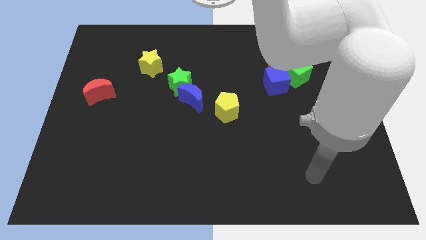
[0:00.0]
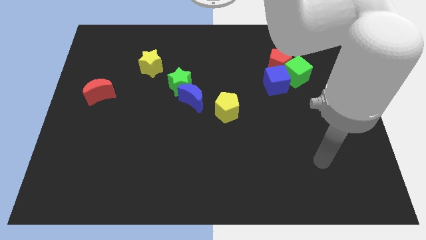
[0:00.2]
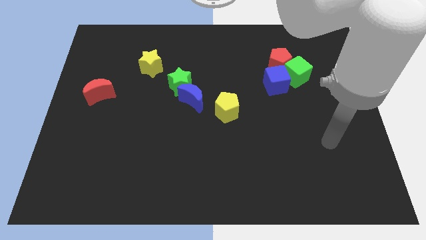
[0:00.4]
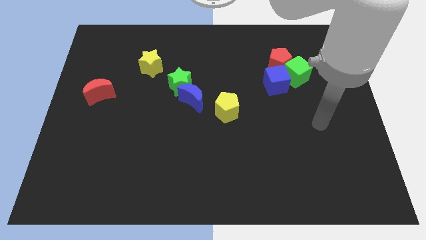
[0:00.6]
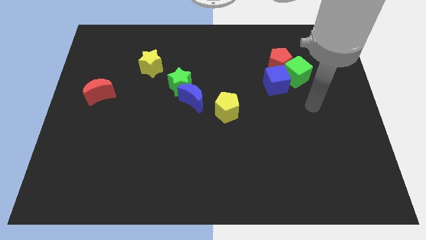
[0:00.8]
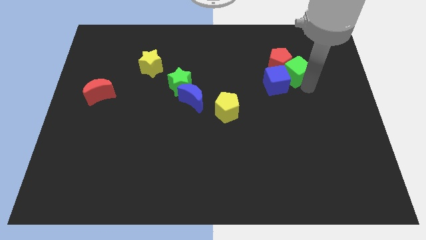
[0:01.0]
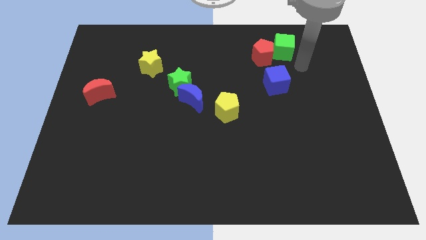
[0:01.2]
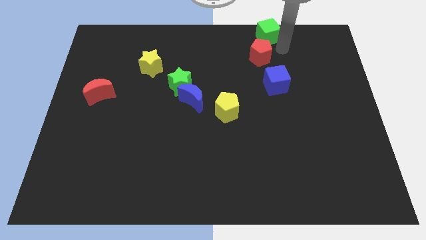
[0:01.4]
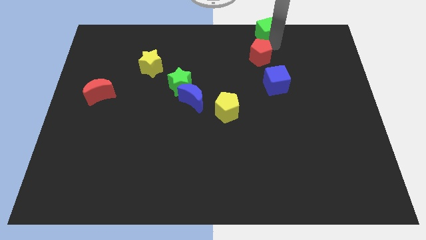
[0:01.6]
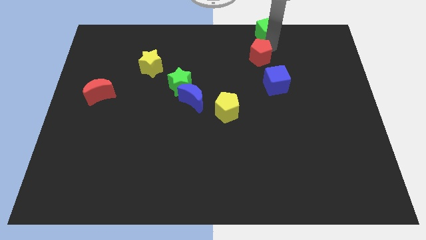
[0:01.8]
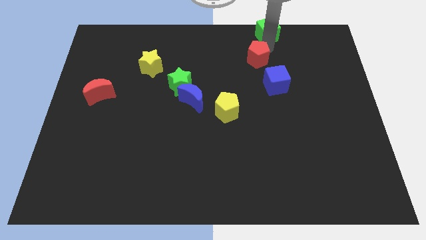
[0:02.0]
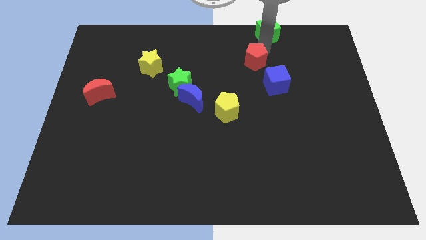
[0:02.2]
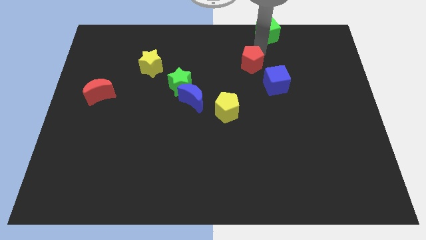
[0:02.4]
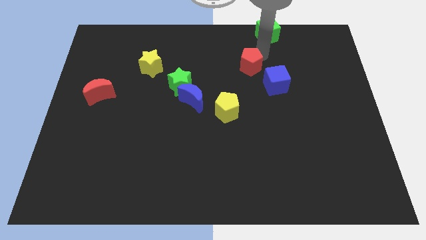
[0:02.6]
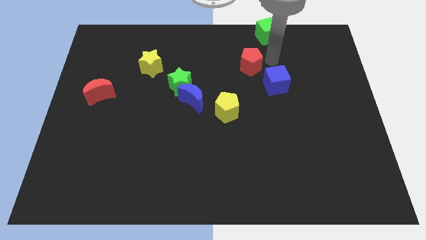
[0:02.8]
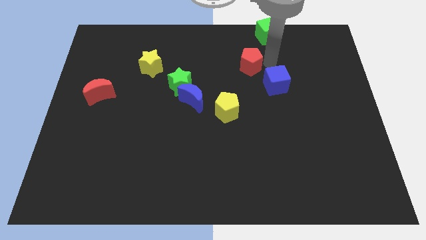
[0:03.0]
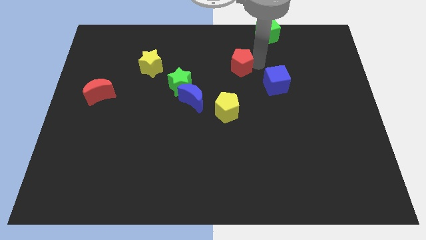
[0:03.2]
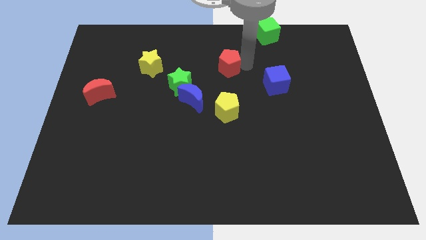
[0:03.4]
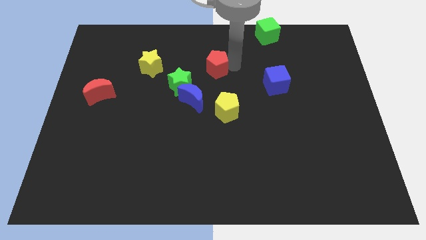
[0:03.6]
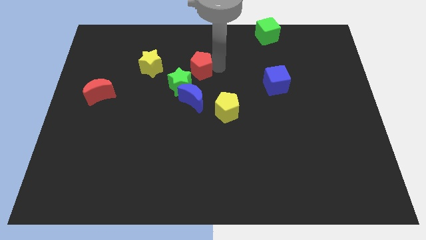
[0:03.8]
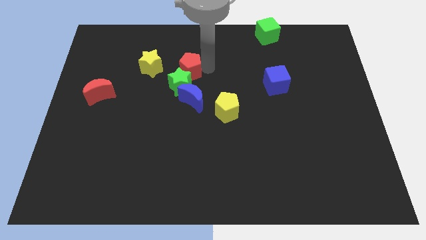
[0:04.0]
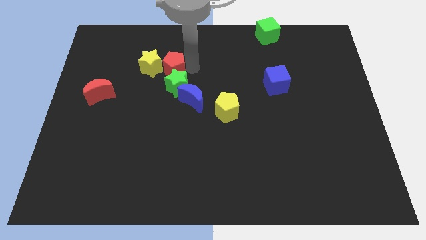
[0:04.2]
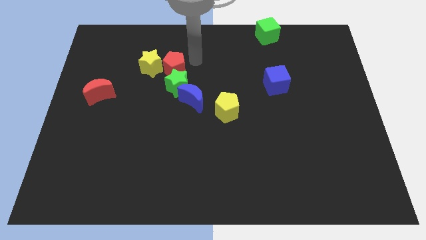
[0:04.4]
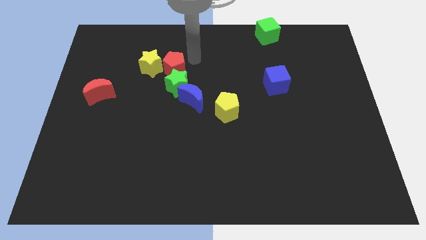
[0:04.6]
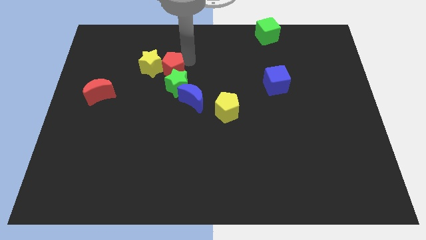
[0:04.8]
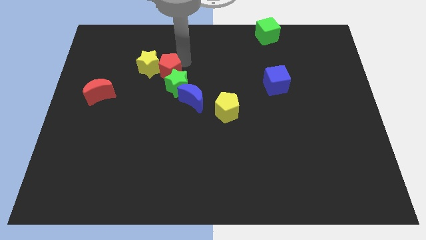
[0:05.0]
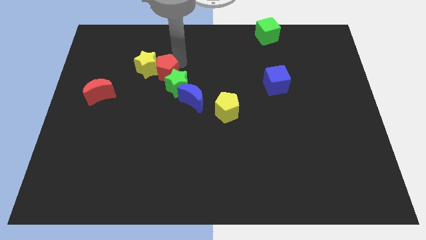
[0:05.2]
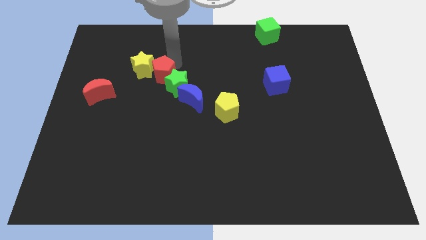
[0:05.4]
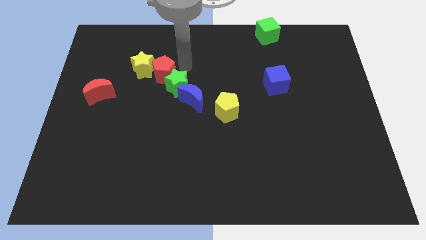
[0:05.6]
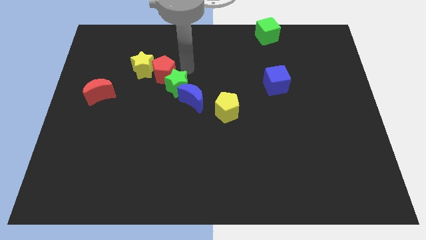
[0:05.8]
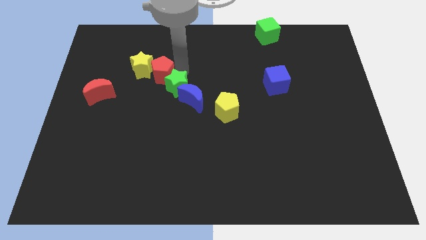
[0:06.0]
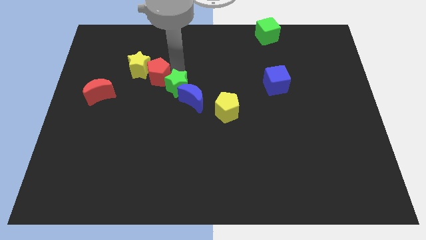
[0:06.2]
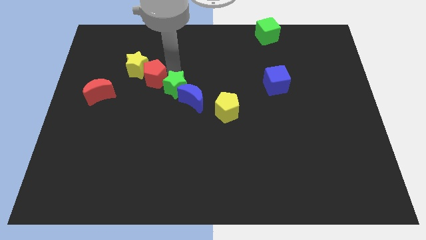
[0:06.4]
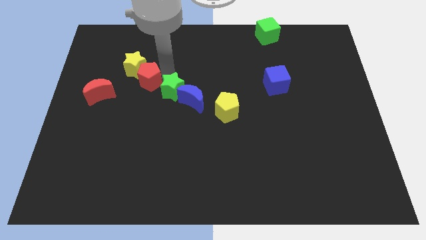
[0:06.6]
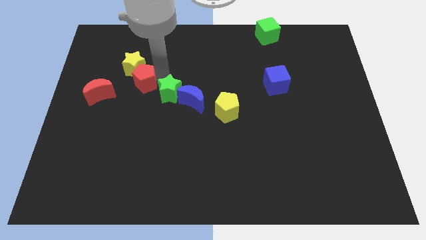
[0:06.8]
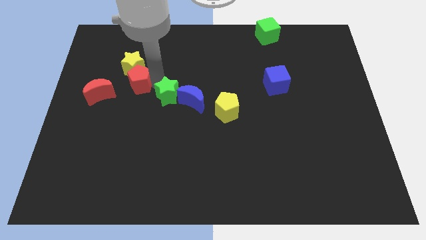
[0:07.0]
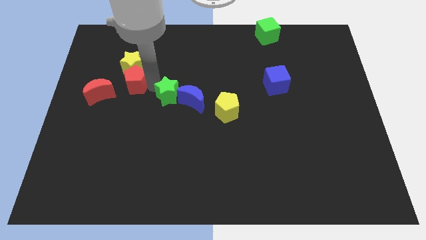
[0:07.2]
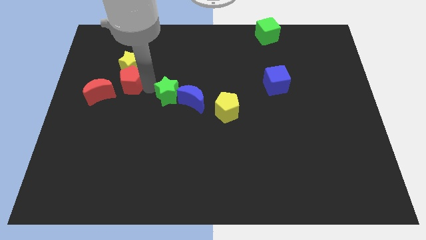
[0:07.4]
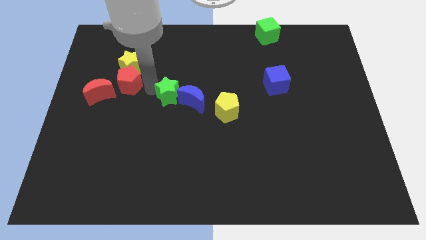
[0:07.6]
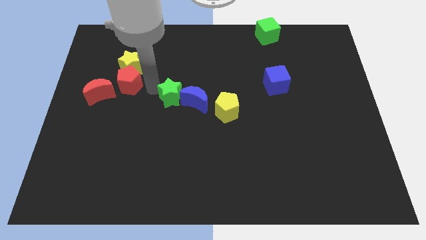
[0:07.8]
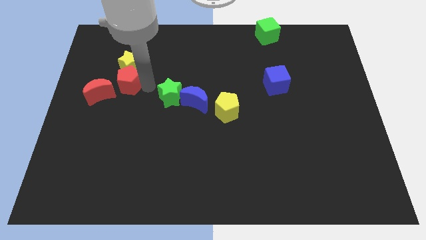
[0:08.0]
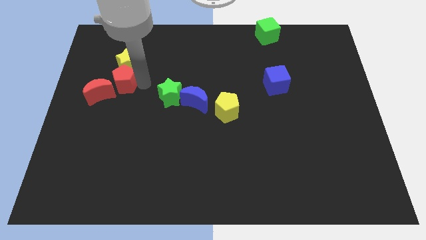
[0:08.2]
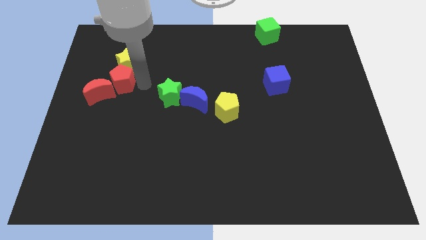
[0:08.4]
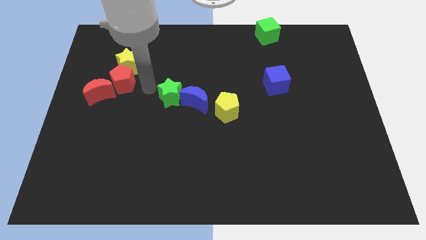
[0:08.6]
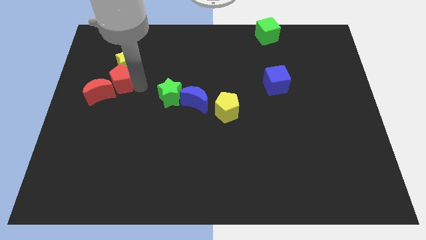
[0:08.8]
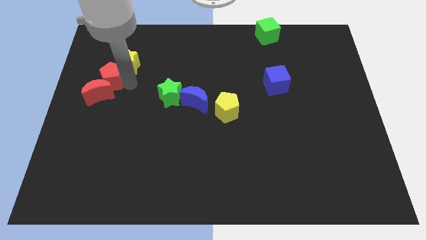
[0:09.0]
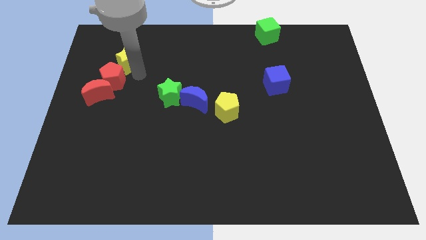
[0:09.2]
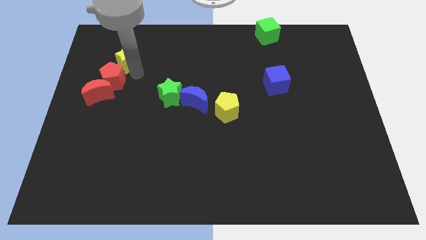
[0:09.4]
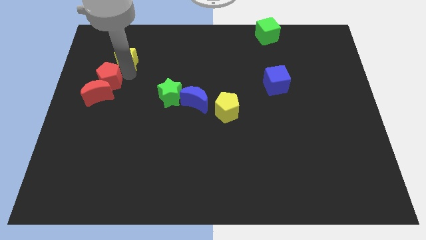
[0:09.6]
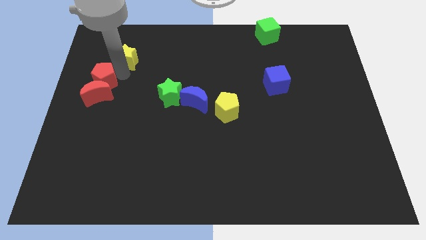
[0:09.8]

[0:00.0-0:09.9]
push the red pentagon to the left side of the board

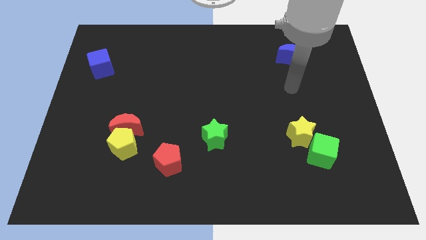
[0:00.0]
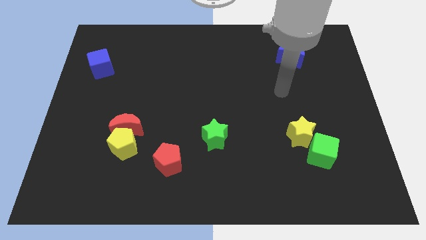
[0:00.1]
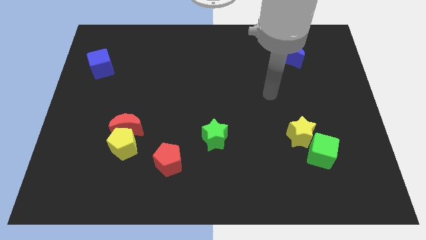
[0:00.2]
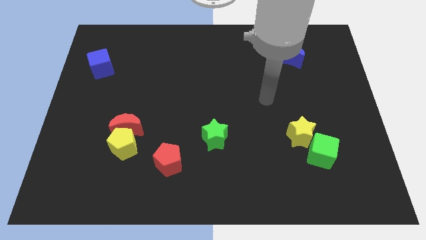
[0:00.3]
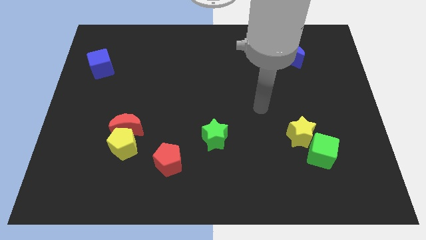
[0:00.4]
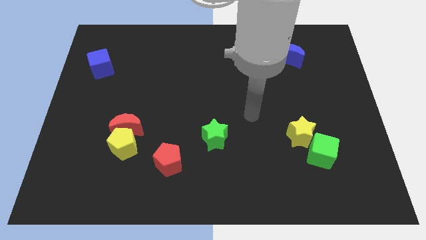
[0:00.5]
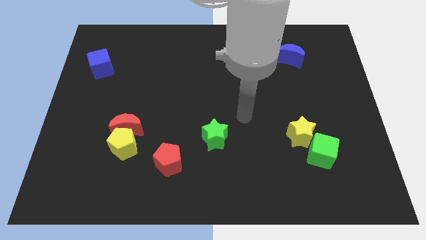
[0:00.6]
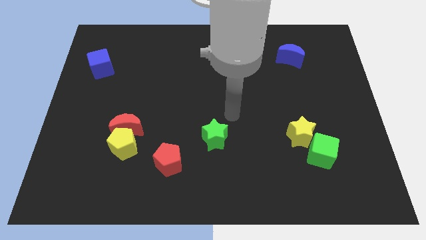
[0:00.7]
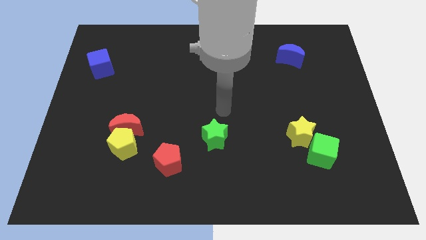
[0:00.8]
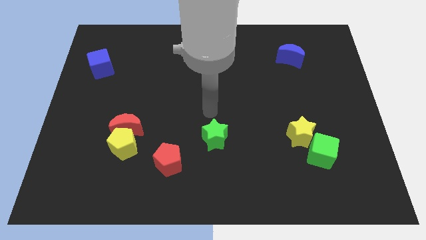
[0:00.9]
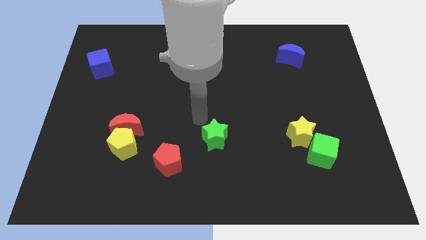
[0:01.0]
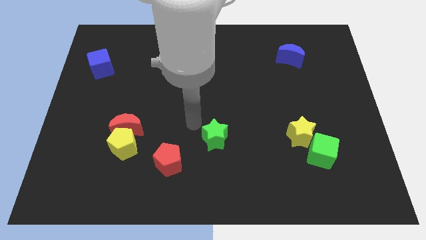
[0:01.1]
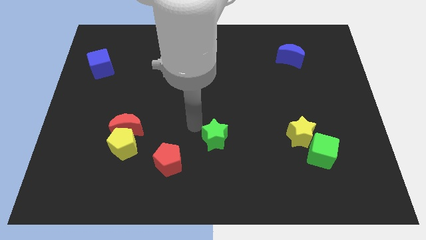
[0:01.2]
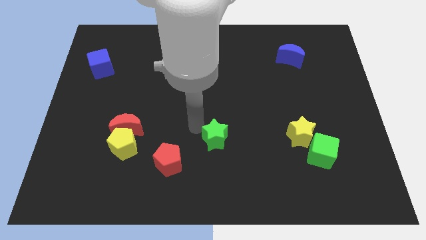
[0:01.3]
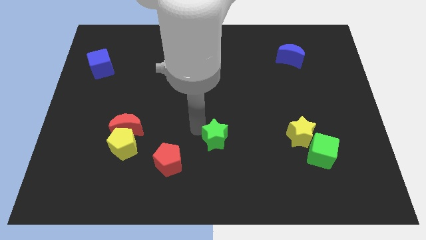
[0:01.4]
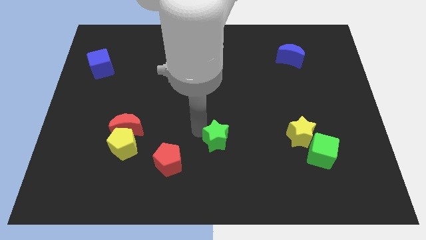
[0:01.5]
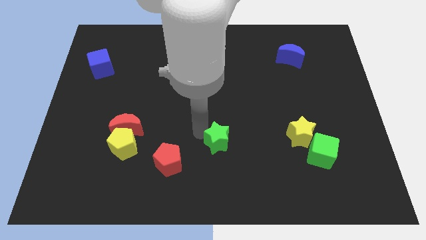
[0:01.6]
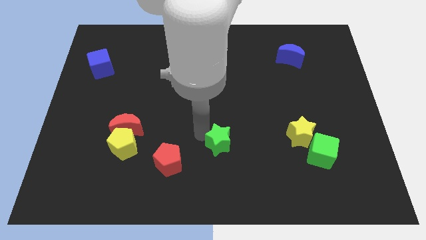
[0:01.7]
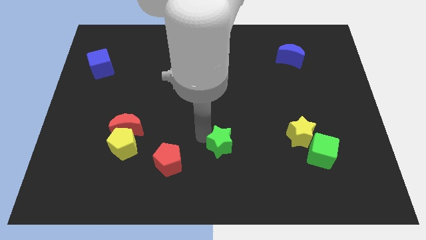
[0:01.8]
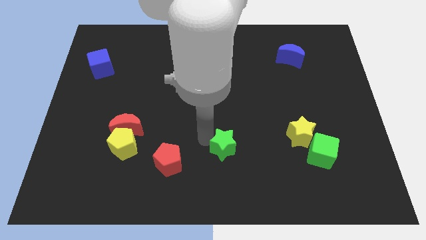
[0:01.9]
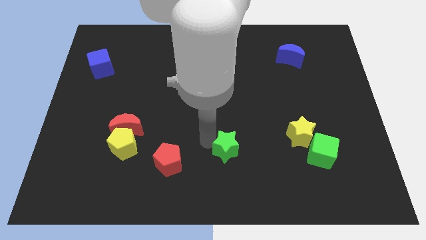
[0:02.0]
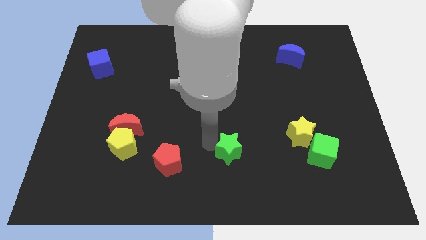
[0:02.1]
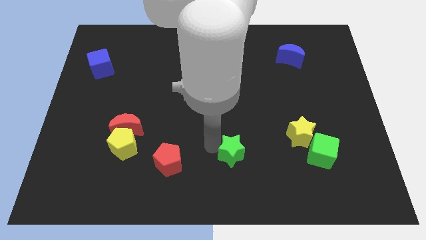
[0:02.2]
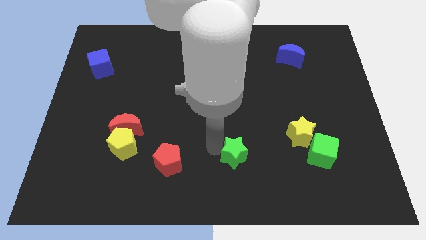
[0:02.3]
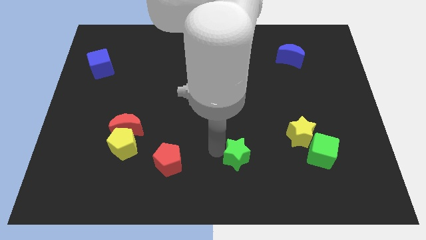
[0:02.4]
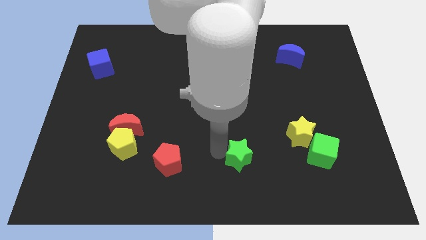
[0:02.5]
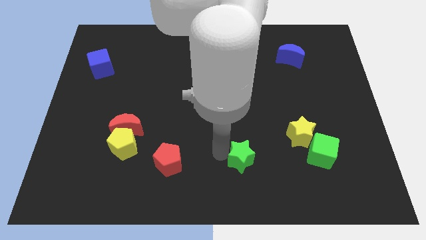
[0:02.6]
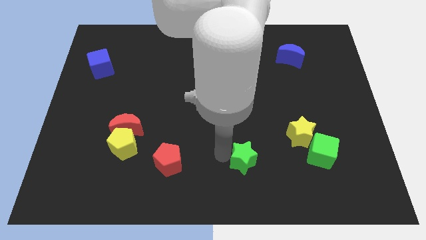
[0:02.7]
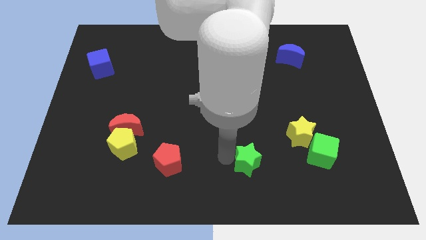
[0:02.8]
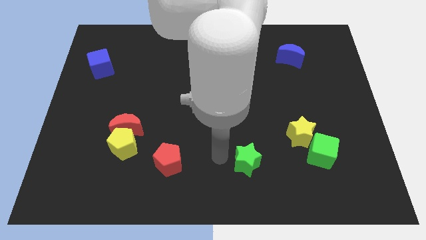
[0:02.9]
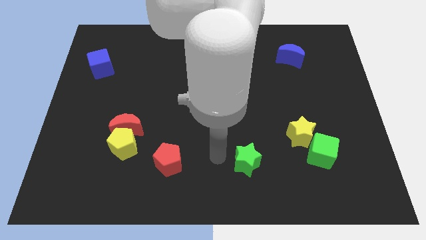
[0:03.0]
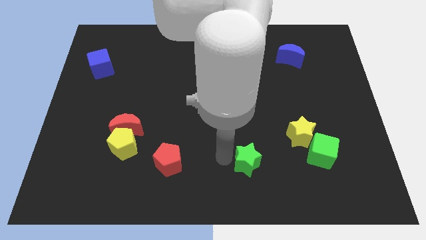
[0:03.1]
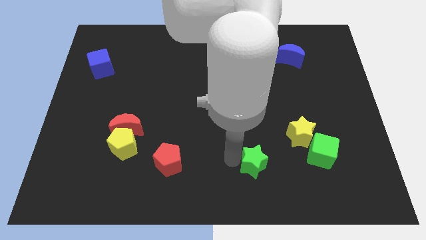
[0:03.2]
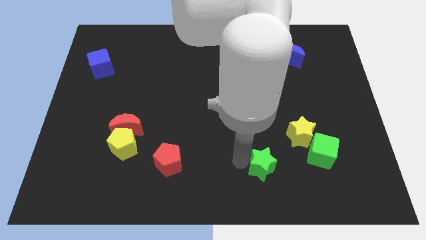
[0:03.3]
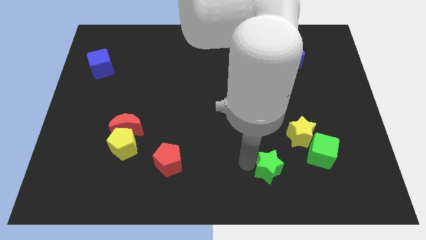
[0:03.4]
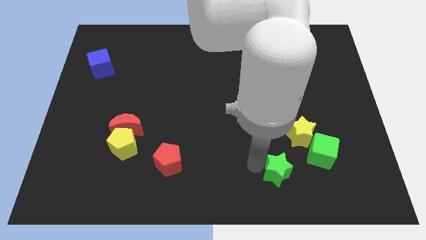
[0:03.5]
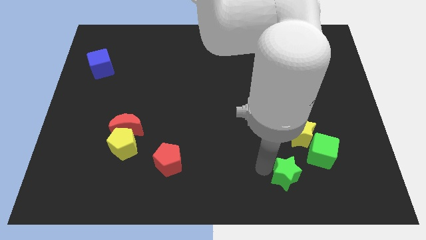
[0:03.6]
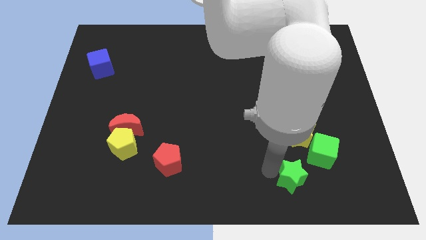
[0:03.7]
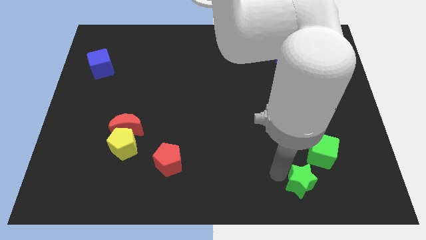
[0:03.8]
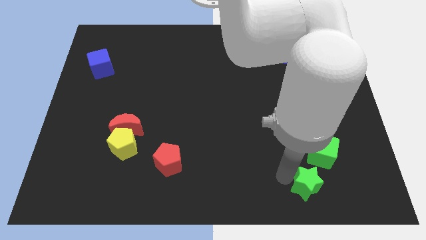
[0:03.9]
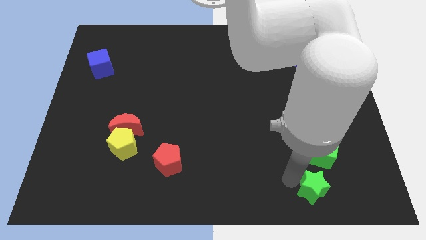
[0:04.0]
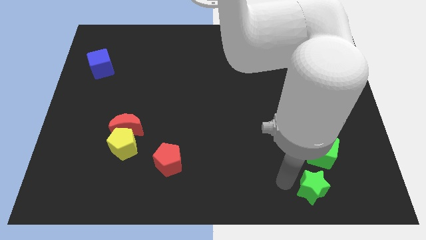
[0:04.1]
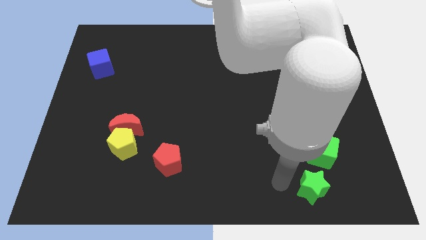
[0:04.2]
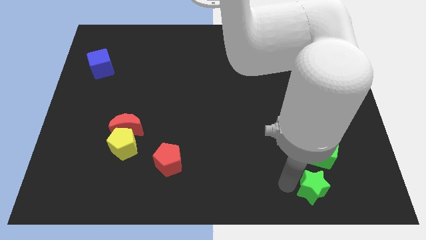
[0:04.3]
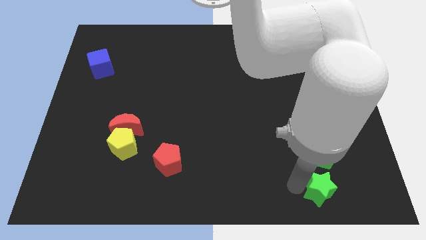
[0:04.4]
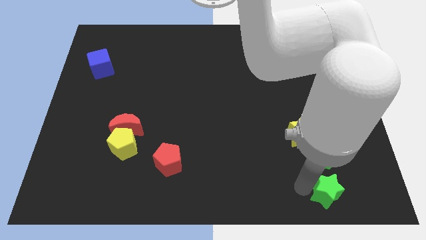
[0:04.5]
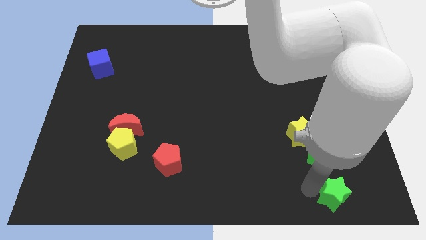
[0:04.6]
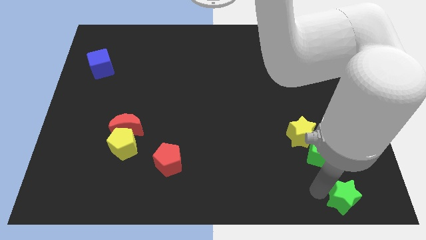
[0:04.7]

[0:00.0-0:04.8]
put the green star to the lower right corner
